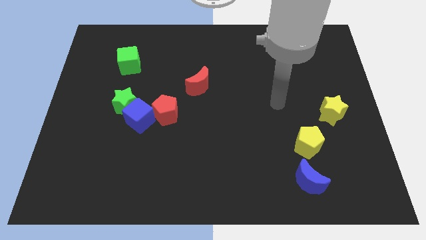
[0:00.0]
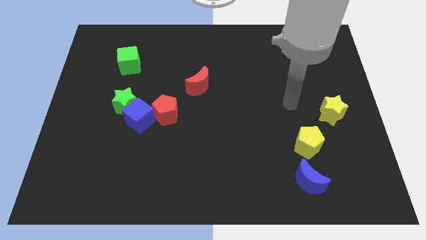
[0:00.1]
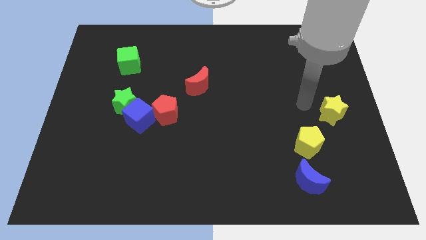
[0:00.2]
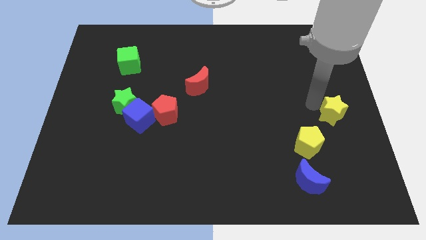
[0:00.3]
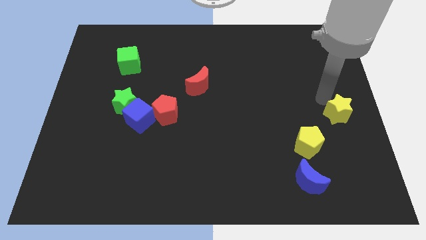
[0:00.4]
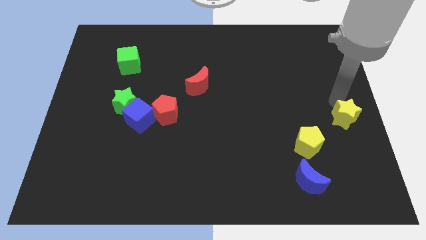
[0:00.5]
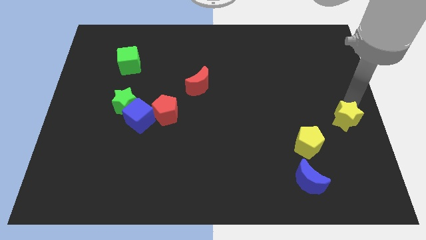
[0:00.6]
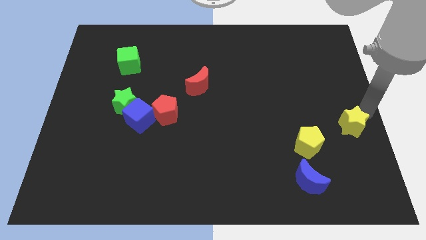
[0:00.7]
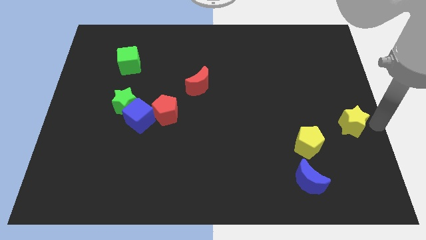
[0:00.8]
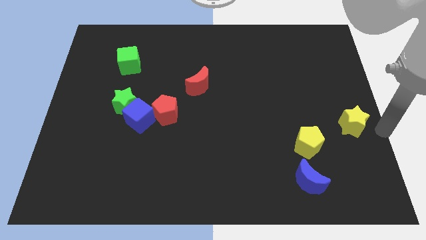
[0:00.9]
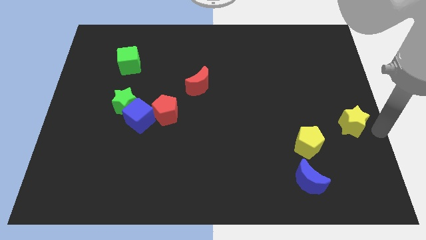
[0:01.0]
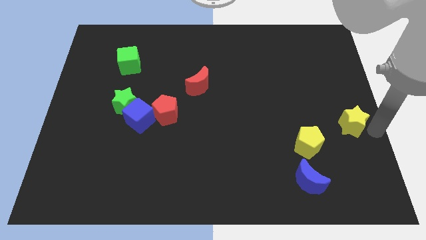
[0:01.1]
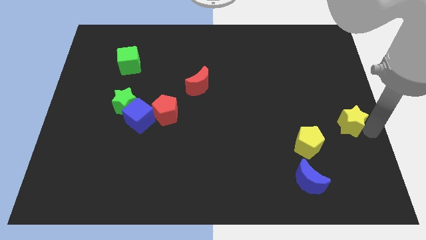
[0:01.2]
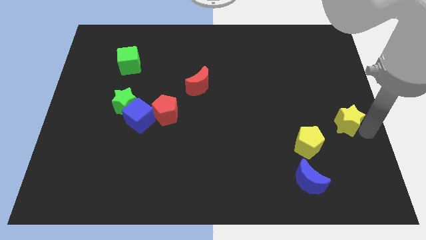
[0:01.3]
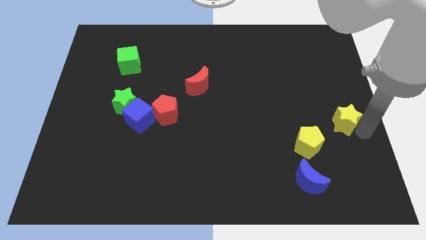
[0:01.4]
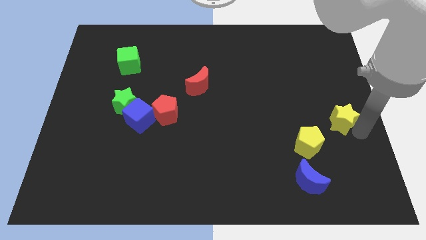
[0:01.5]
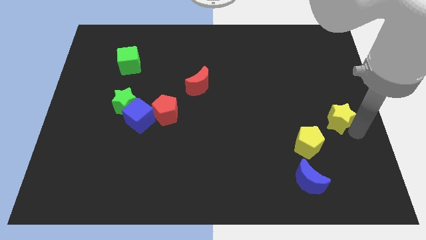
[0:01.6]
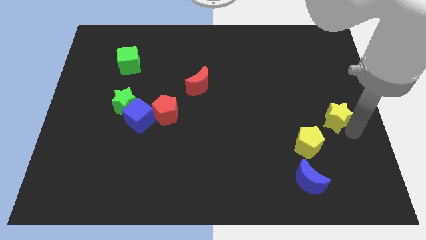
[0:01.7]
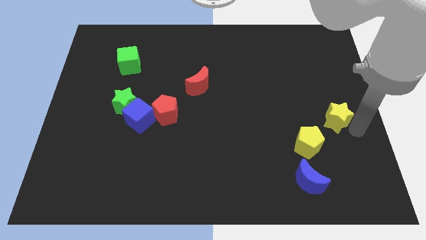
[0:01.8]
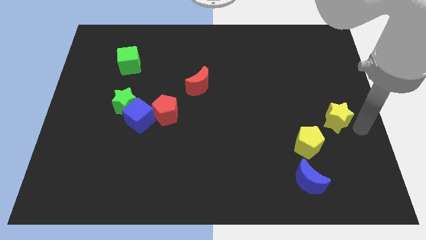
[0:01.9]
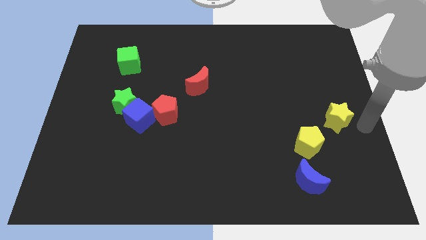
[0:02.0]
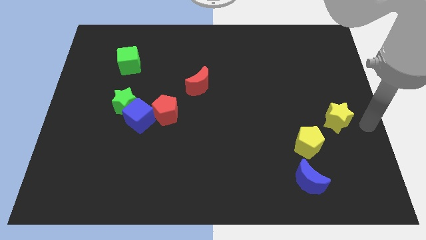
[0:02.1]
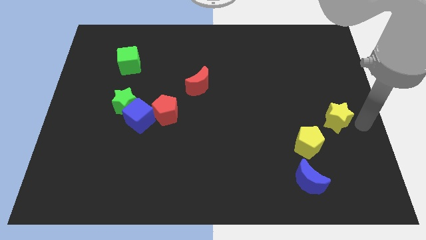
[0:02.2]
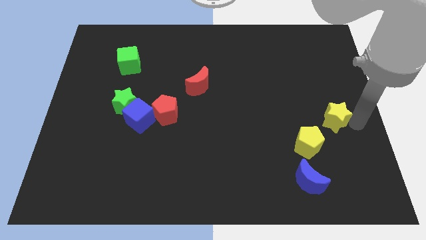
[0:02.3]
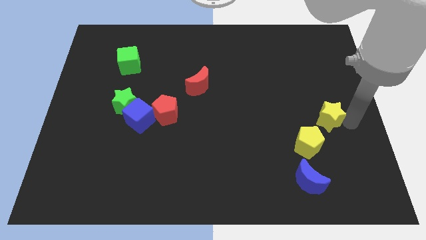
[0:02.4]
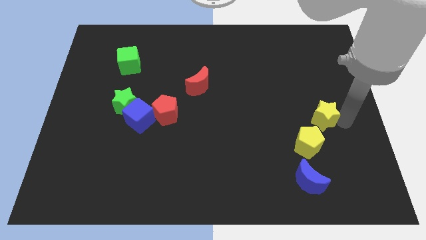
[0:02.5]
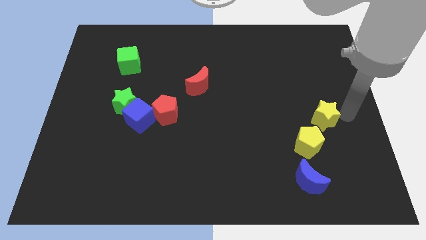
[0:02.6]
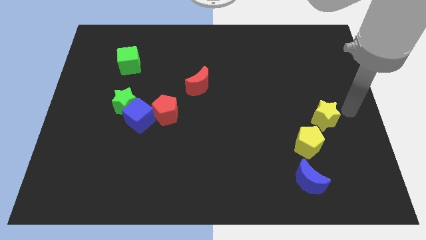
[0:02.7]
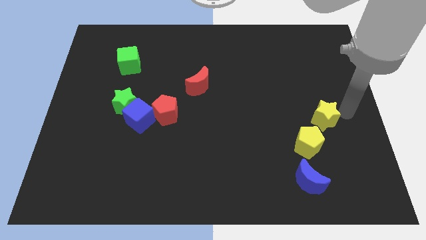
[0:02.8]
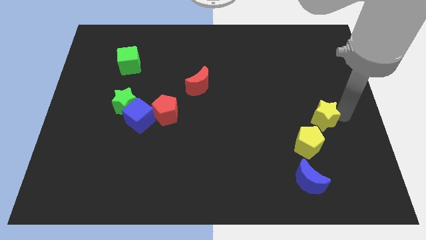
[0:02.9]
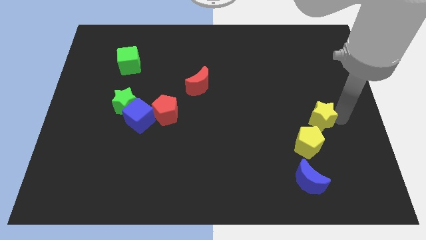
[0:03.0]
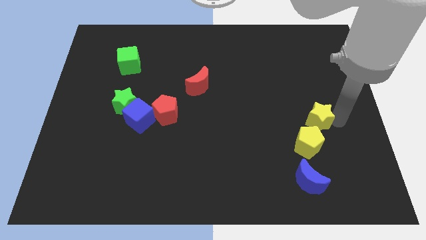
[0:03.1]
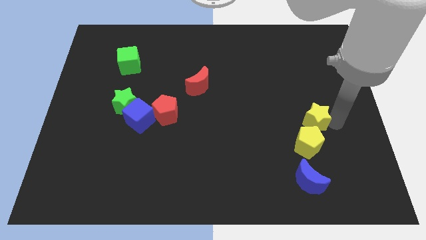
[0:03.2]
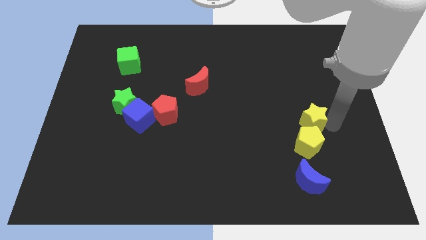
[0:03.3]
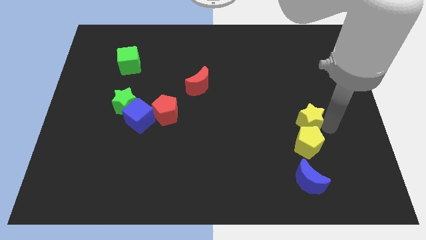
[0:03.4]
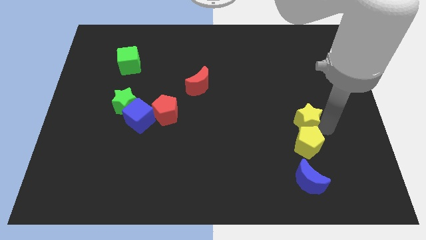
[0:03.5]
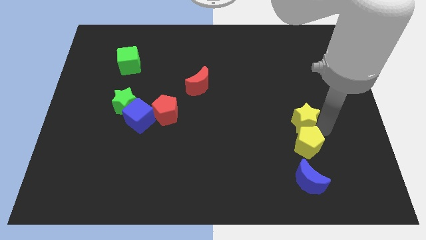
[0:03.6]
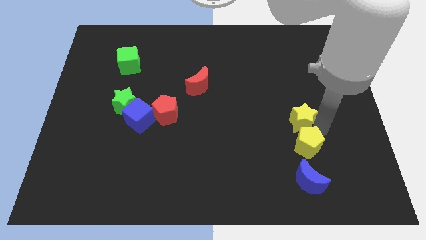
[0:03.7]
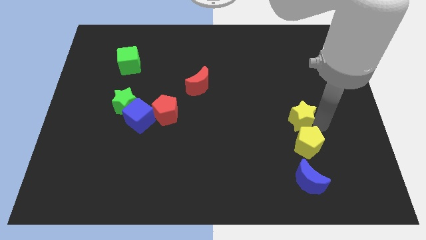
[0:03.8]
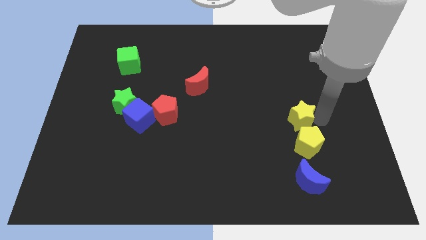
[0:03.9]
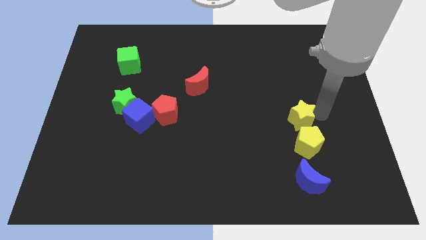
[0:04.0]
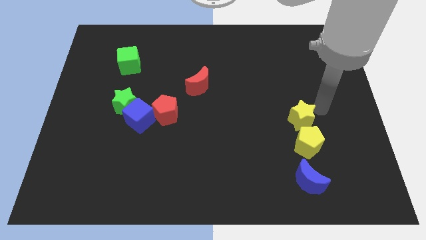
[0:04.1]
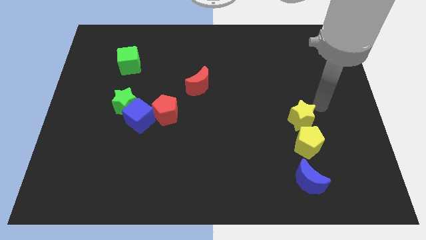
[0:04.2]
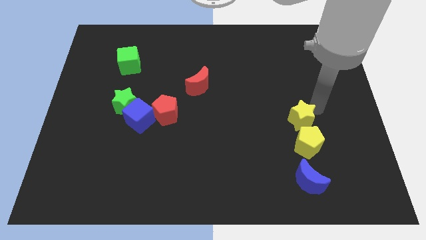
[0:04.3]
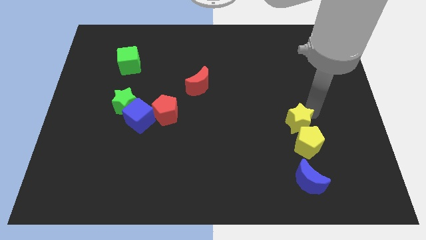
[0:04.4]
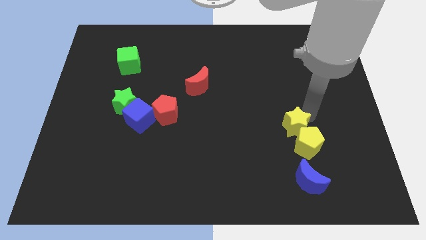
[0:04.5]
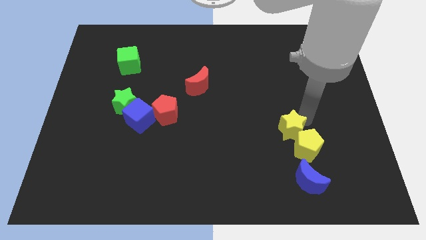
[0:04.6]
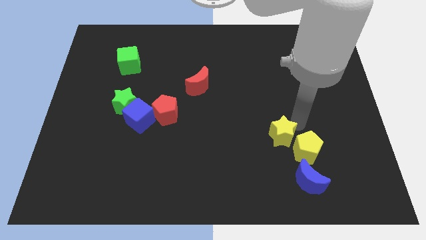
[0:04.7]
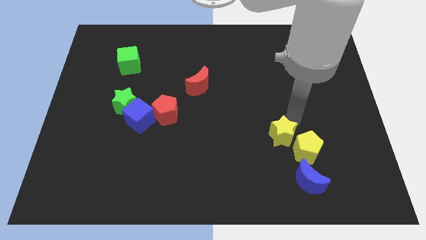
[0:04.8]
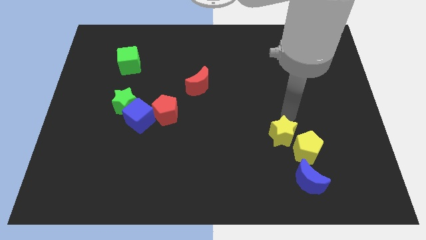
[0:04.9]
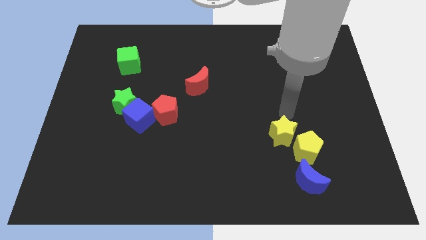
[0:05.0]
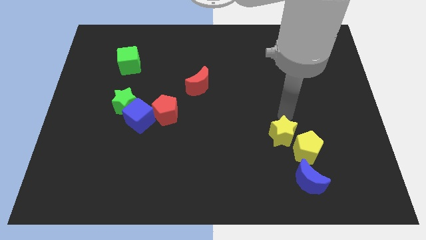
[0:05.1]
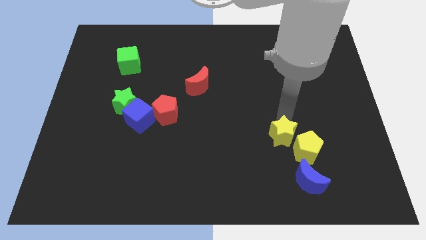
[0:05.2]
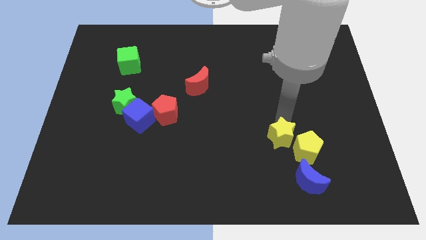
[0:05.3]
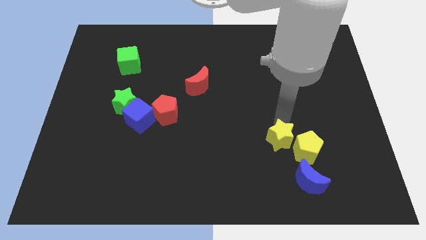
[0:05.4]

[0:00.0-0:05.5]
move the yellow star to the top left side of the blue moon

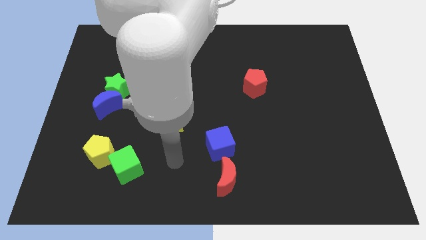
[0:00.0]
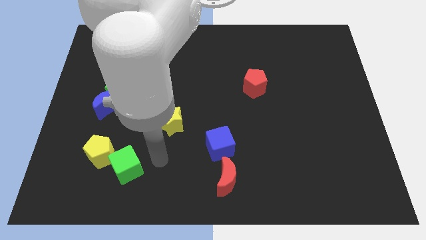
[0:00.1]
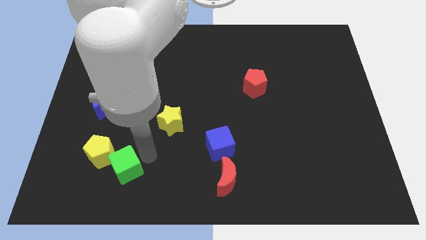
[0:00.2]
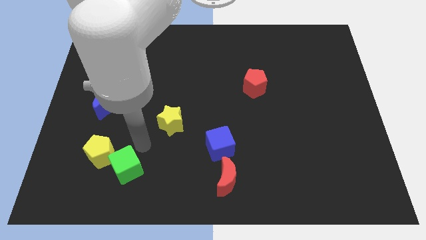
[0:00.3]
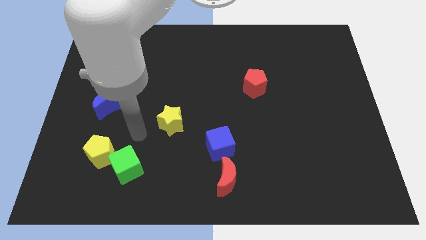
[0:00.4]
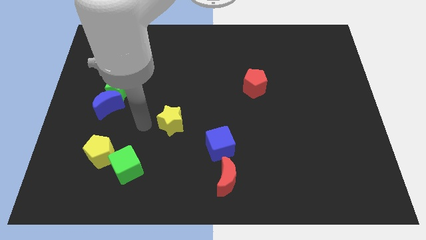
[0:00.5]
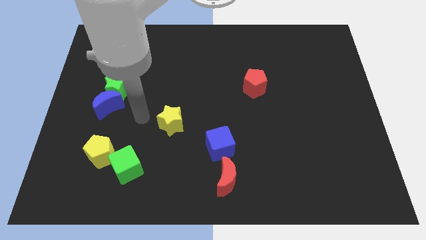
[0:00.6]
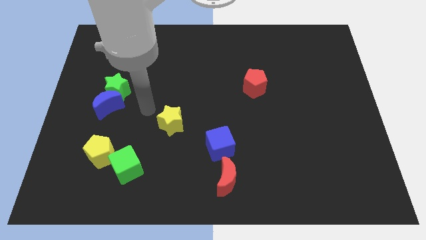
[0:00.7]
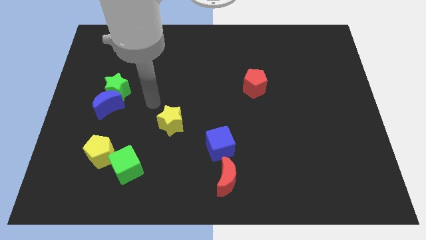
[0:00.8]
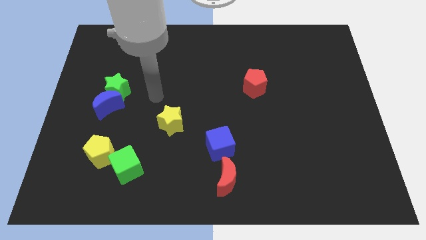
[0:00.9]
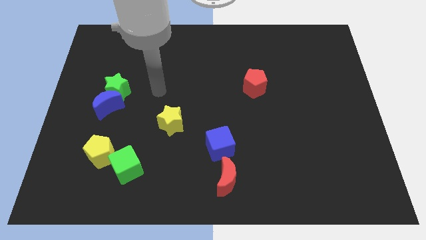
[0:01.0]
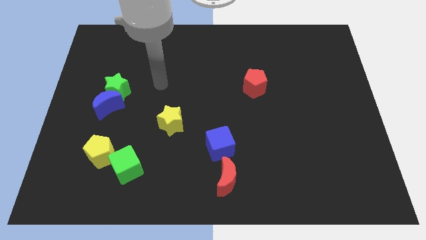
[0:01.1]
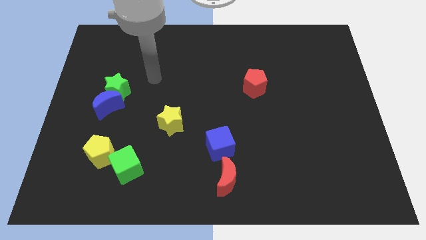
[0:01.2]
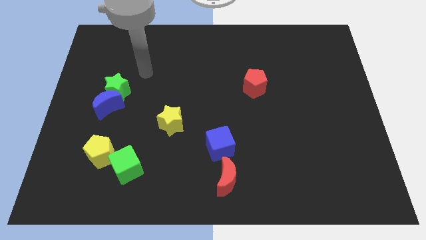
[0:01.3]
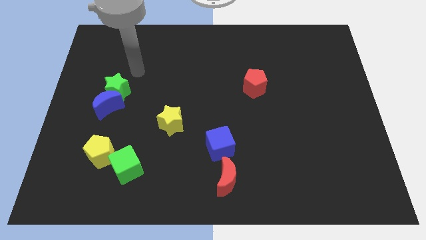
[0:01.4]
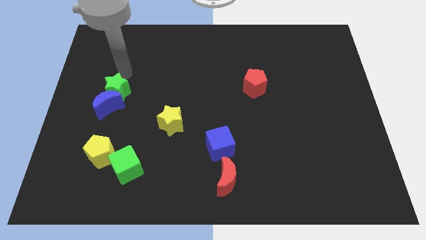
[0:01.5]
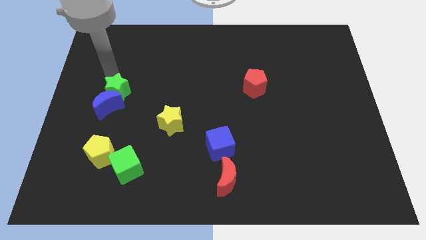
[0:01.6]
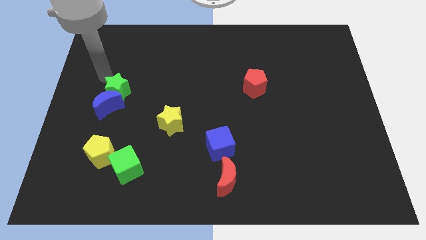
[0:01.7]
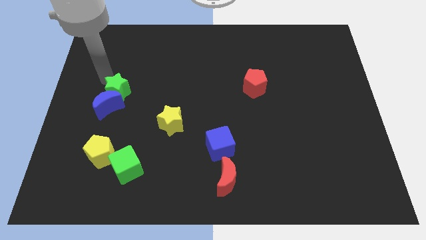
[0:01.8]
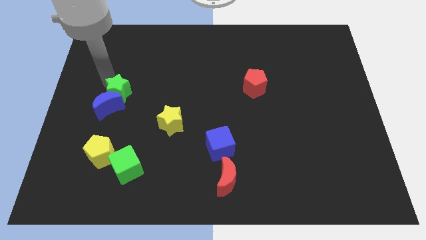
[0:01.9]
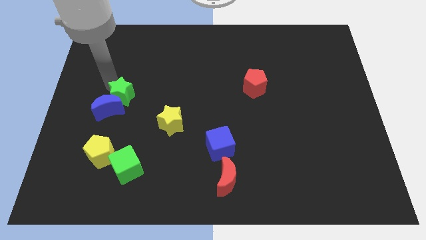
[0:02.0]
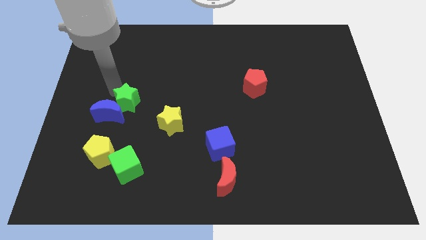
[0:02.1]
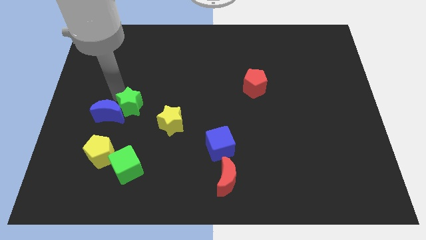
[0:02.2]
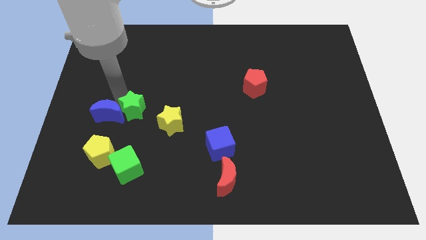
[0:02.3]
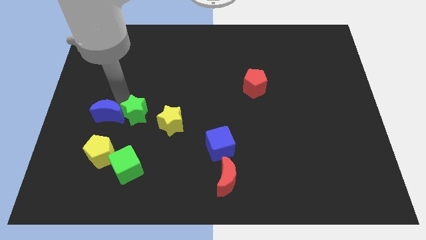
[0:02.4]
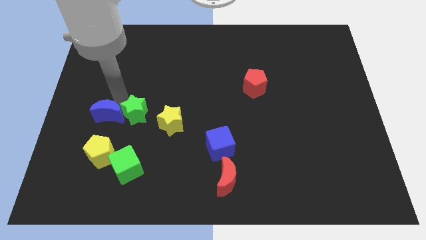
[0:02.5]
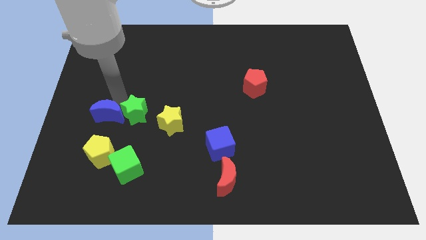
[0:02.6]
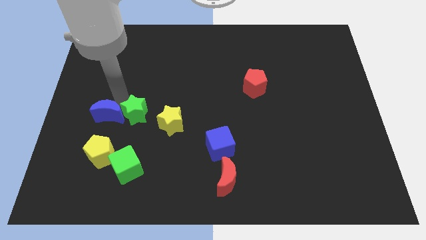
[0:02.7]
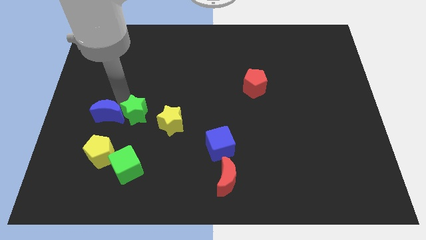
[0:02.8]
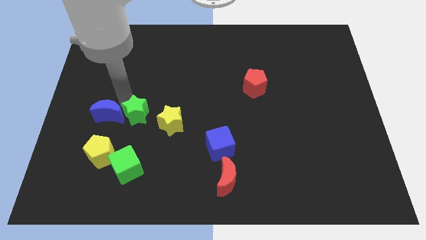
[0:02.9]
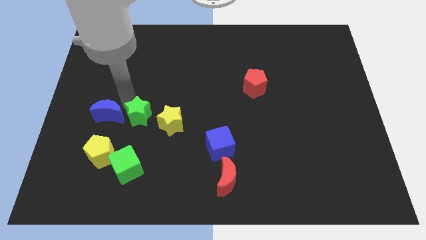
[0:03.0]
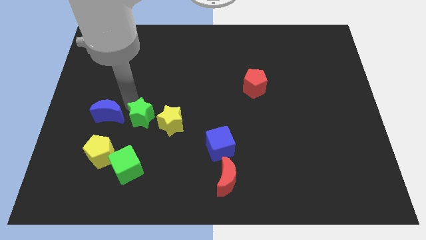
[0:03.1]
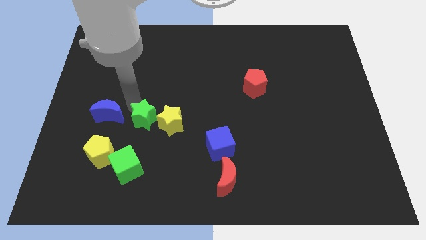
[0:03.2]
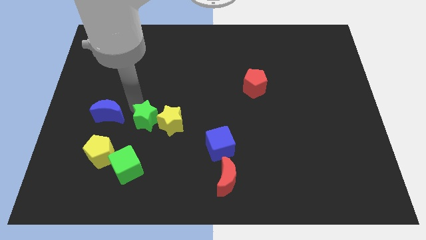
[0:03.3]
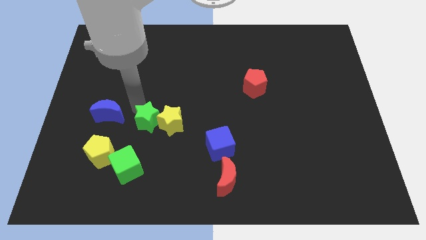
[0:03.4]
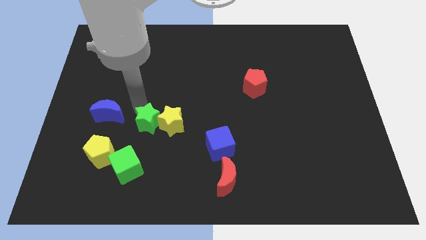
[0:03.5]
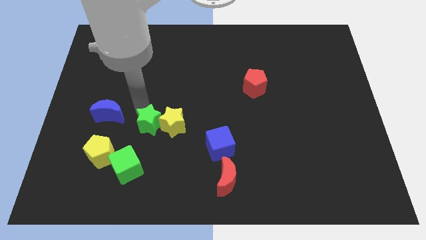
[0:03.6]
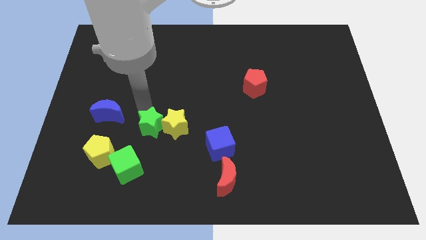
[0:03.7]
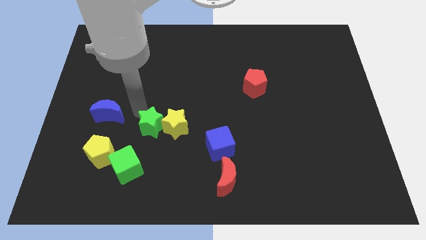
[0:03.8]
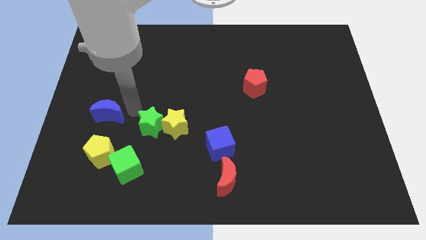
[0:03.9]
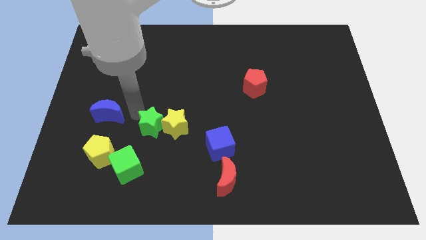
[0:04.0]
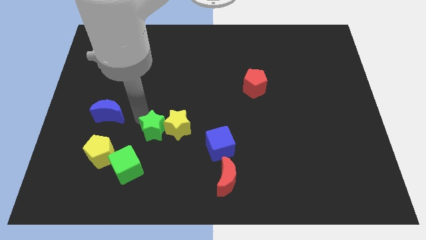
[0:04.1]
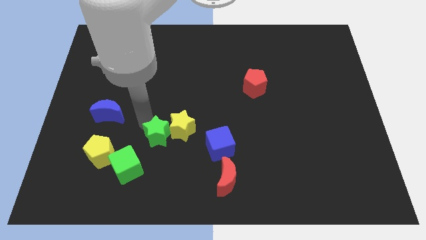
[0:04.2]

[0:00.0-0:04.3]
push the green star to the left of the blue cube
